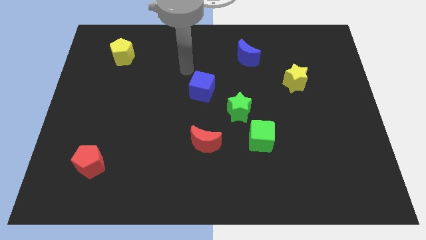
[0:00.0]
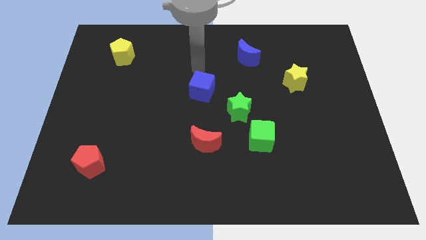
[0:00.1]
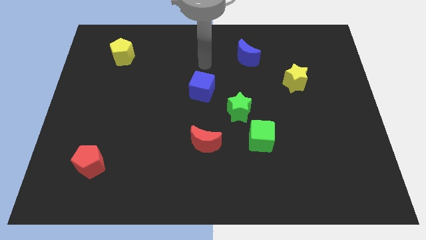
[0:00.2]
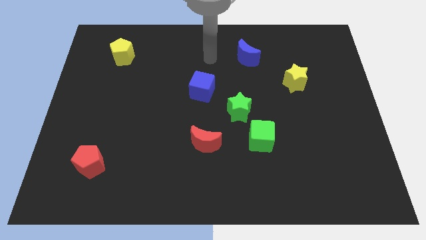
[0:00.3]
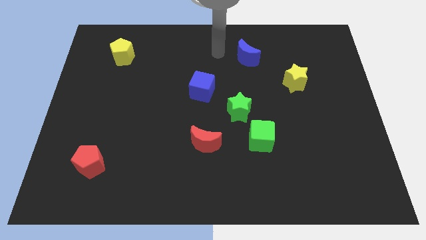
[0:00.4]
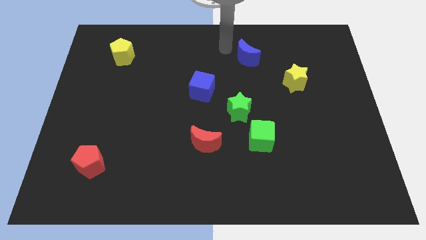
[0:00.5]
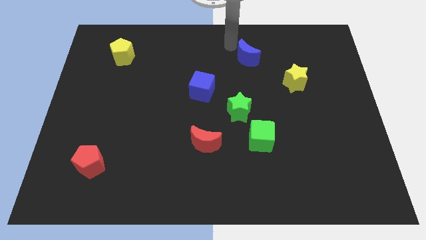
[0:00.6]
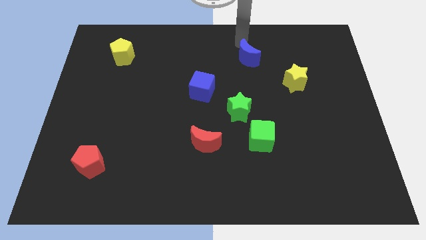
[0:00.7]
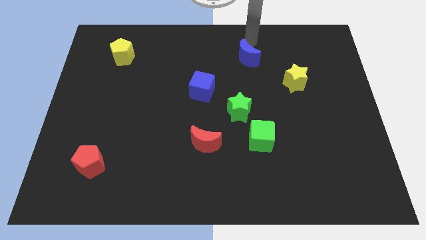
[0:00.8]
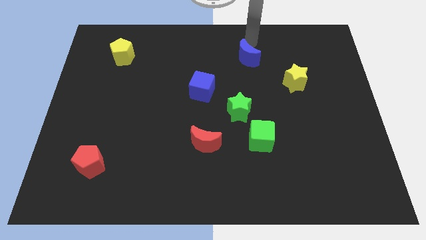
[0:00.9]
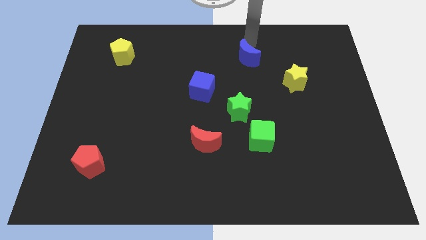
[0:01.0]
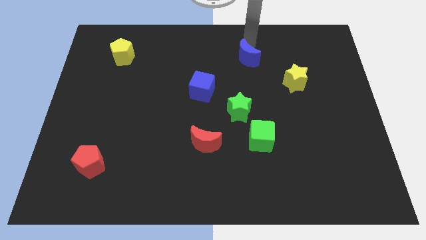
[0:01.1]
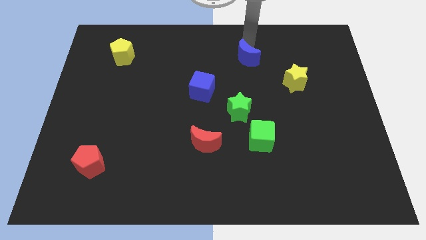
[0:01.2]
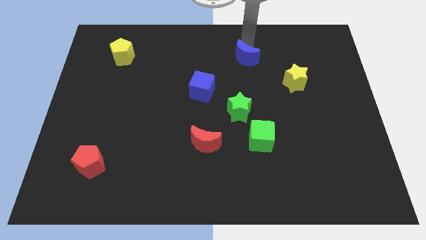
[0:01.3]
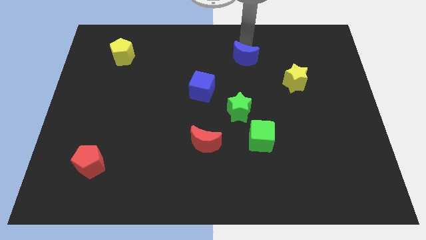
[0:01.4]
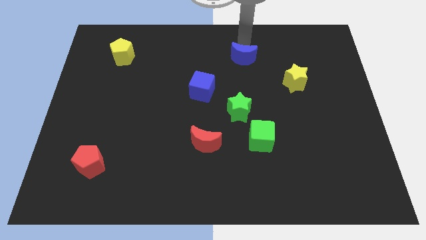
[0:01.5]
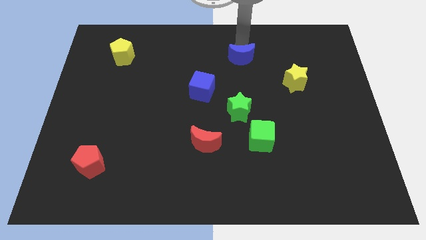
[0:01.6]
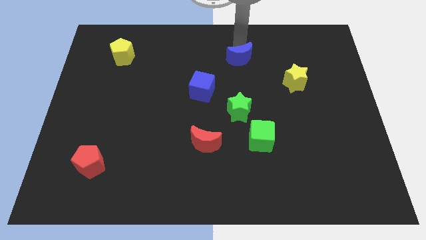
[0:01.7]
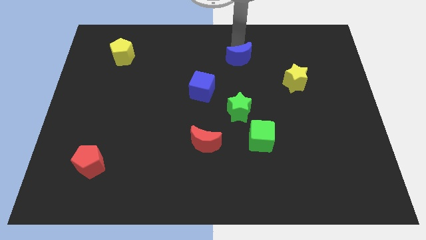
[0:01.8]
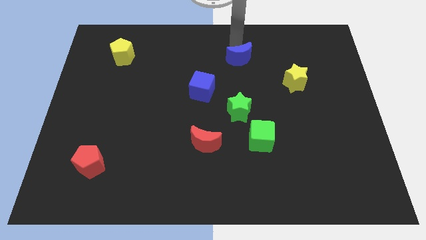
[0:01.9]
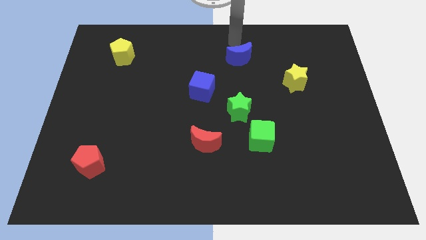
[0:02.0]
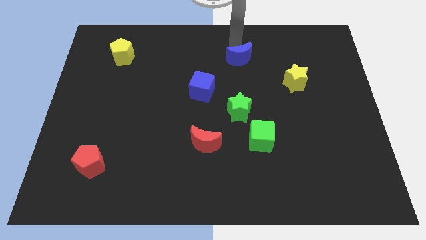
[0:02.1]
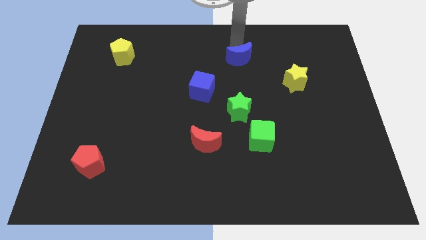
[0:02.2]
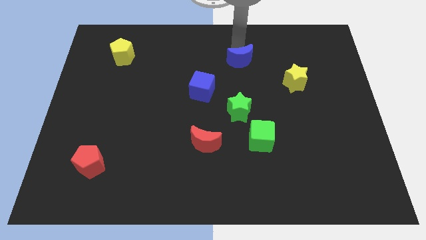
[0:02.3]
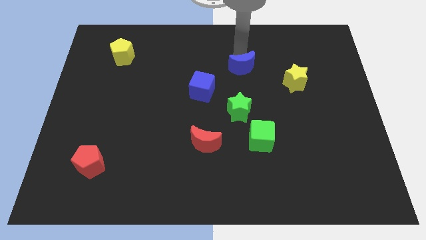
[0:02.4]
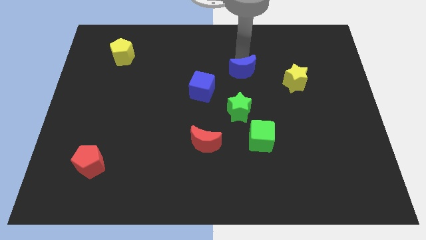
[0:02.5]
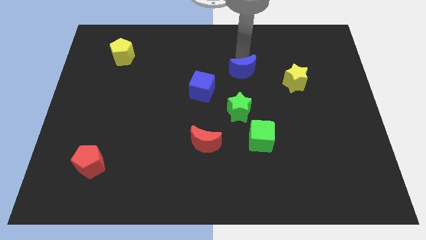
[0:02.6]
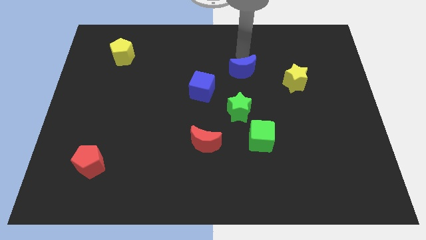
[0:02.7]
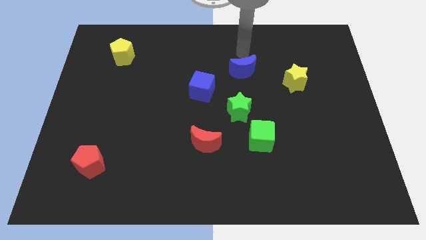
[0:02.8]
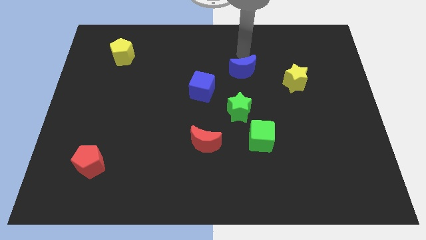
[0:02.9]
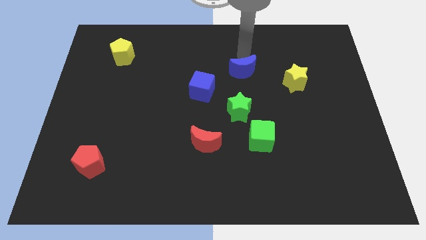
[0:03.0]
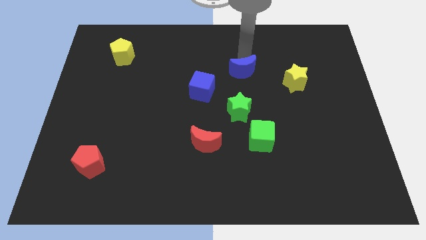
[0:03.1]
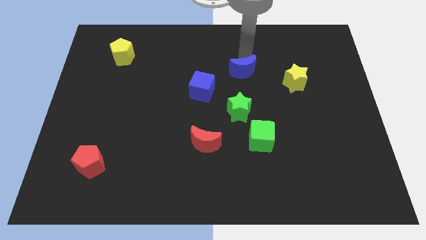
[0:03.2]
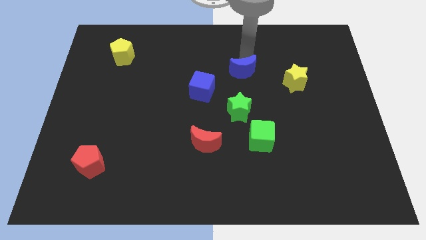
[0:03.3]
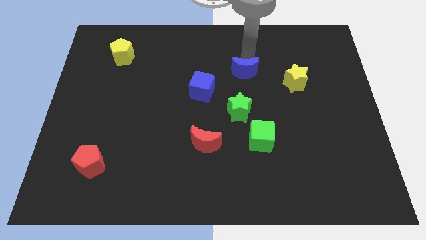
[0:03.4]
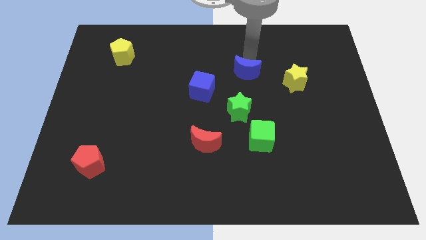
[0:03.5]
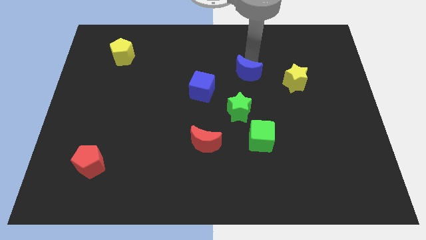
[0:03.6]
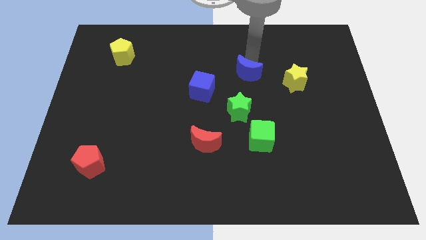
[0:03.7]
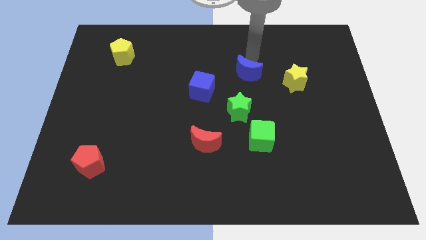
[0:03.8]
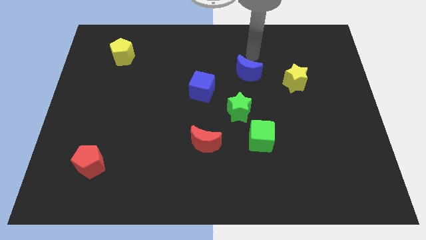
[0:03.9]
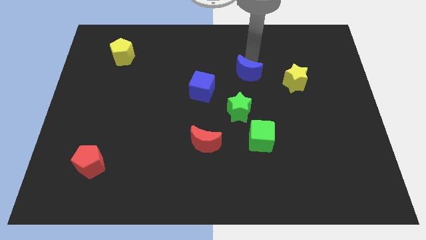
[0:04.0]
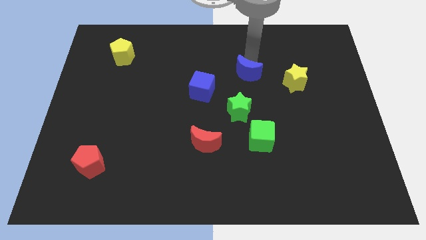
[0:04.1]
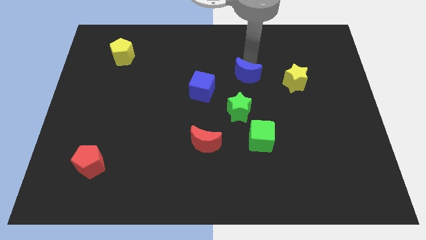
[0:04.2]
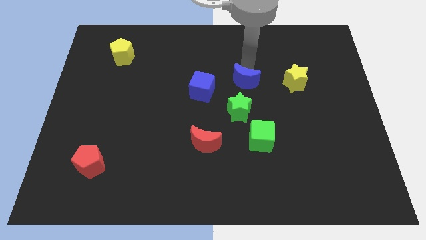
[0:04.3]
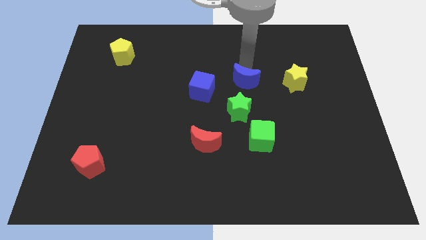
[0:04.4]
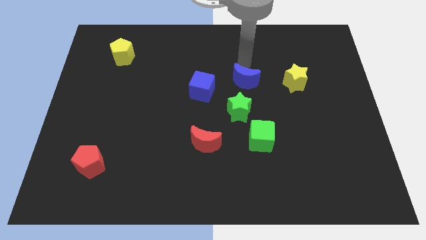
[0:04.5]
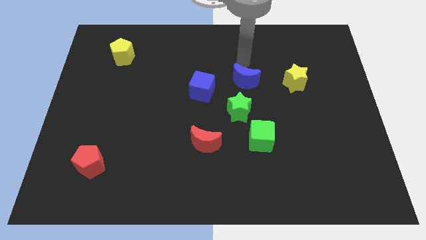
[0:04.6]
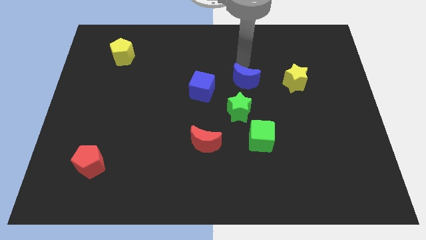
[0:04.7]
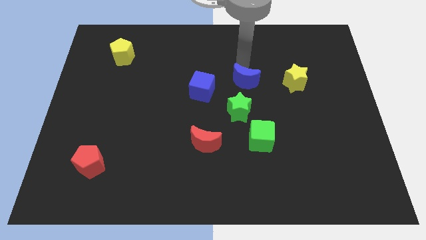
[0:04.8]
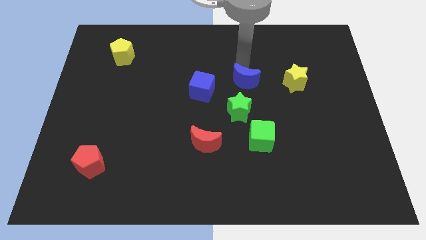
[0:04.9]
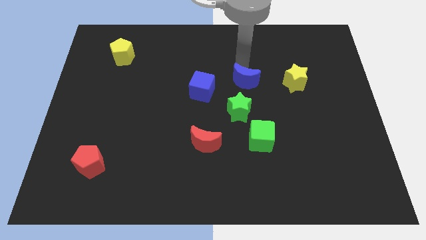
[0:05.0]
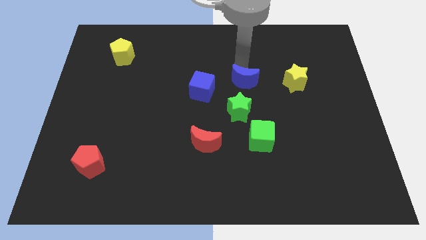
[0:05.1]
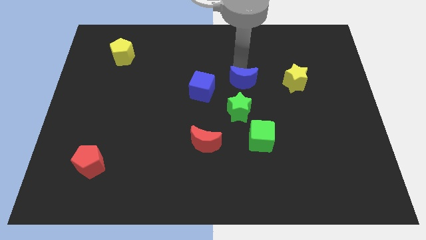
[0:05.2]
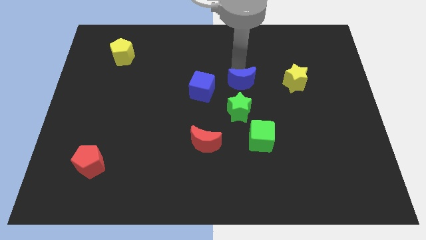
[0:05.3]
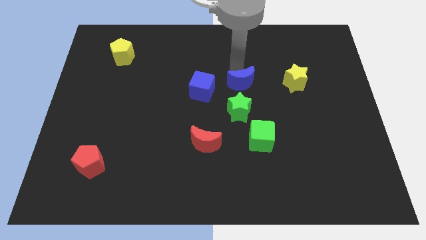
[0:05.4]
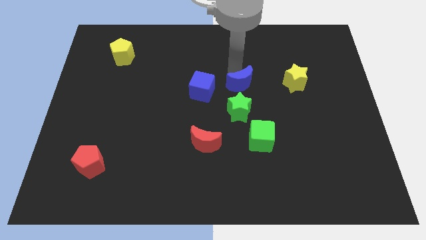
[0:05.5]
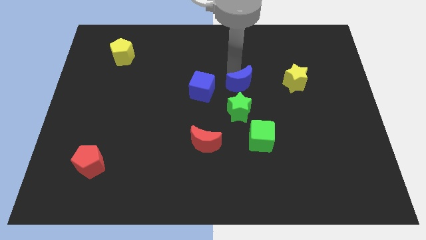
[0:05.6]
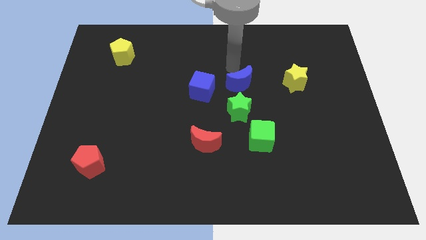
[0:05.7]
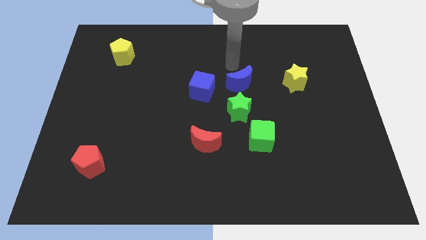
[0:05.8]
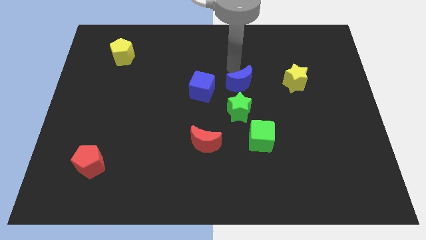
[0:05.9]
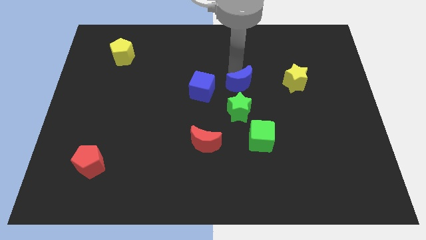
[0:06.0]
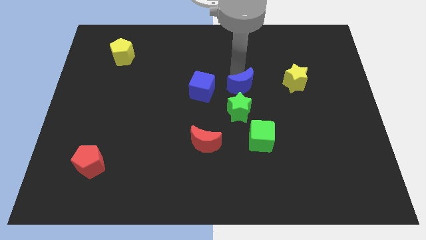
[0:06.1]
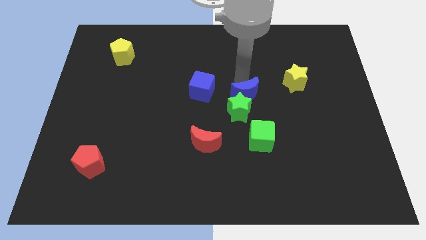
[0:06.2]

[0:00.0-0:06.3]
move the blue moon close to the green star

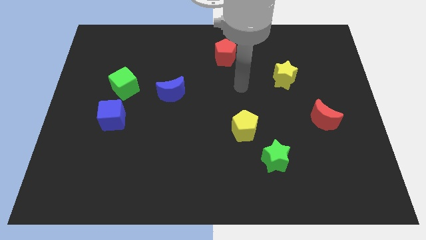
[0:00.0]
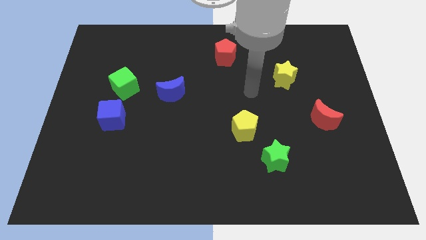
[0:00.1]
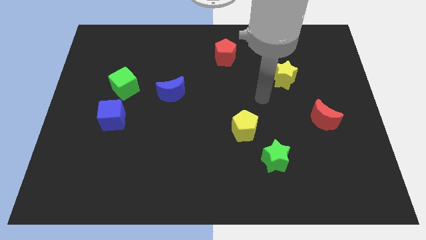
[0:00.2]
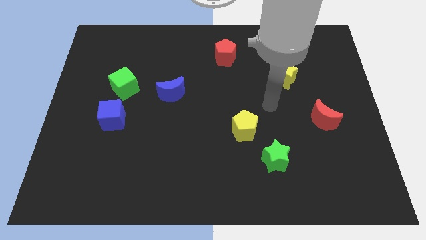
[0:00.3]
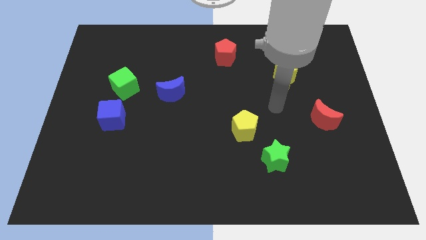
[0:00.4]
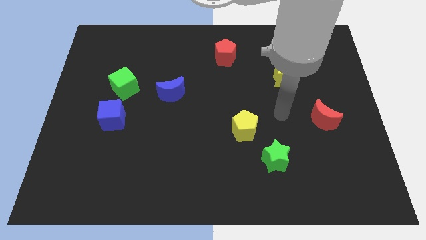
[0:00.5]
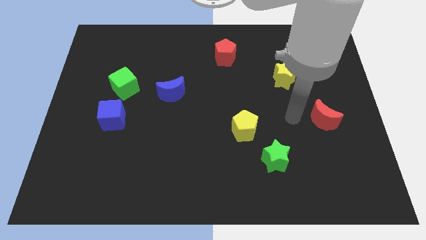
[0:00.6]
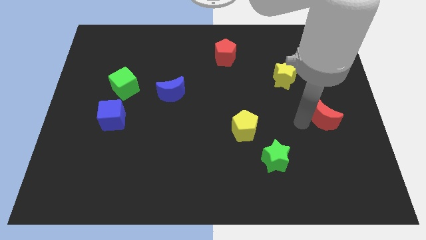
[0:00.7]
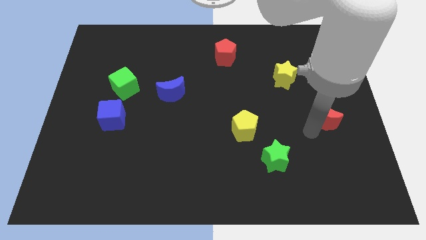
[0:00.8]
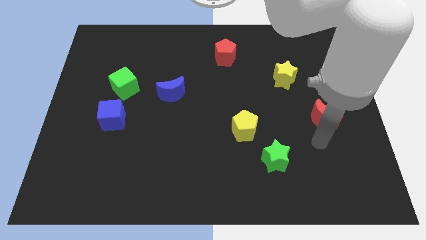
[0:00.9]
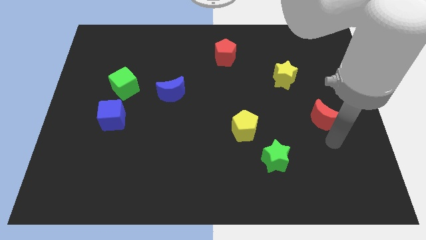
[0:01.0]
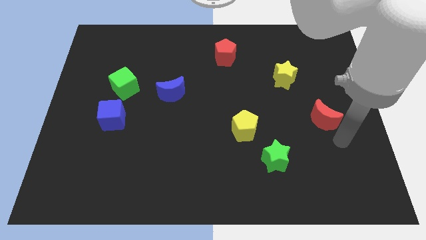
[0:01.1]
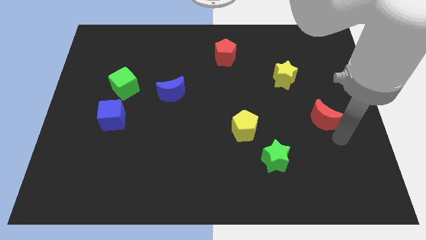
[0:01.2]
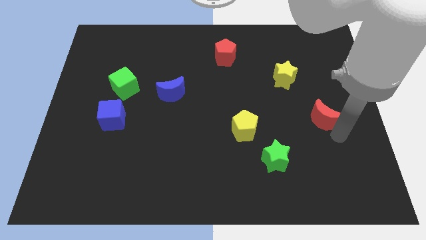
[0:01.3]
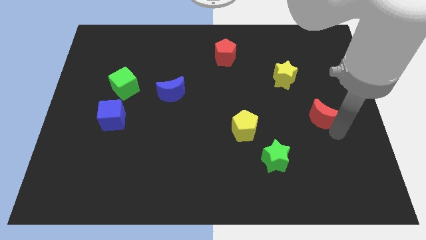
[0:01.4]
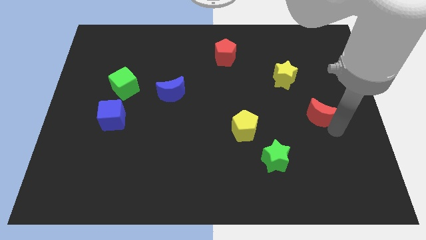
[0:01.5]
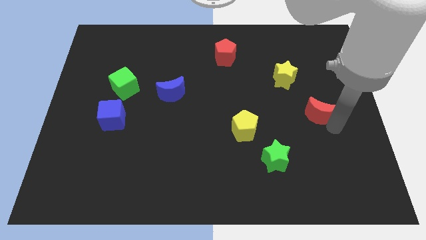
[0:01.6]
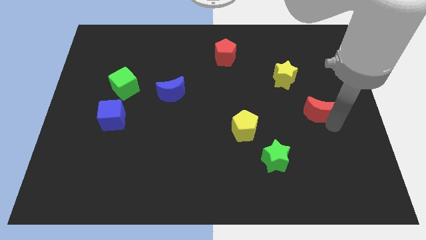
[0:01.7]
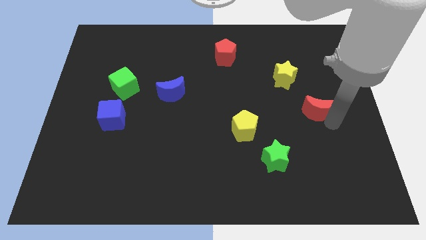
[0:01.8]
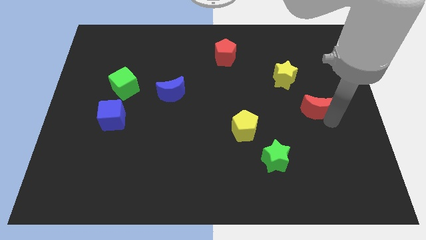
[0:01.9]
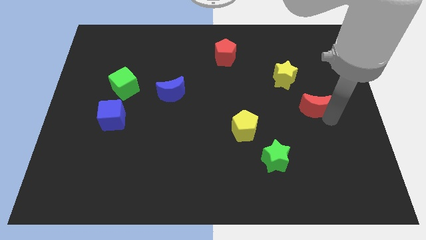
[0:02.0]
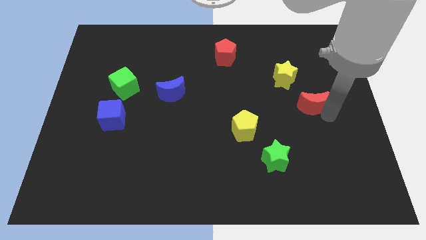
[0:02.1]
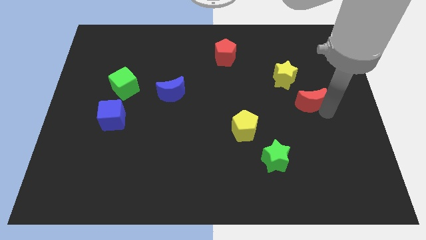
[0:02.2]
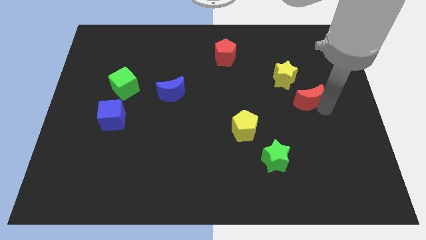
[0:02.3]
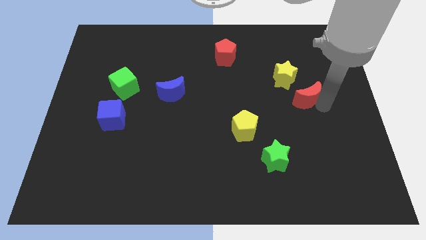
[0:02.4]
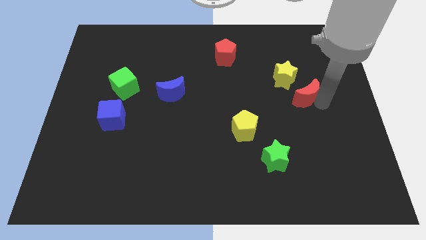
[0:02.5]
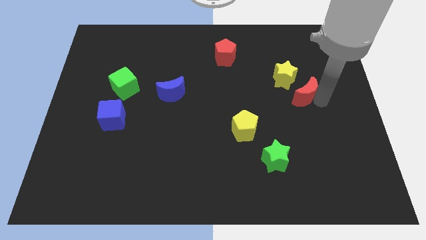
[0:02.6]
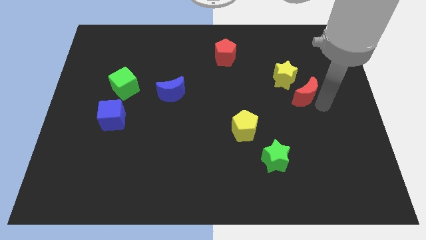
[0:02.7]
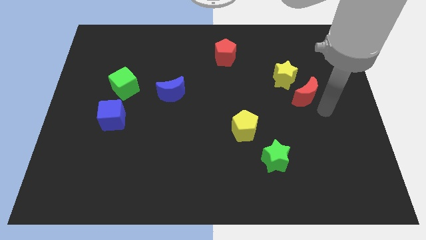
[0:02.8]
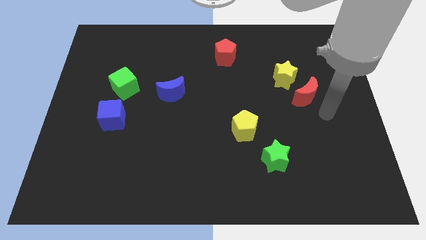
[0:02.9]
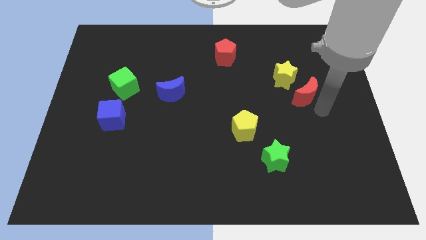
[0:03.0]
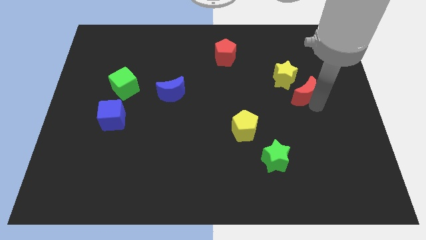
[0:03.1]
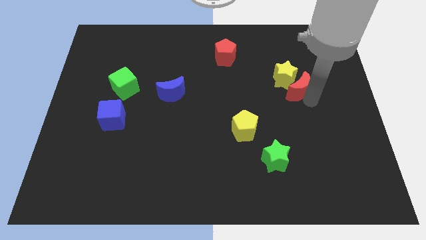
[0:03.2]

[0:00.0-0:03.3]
move the red moon towards the yellow star
